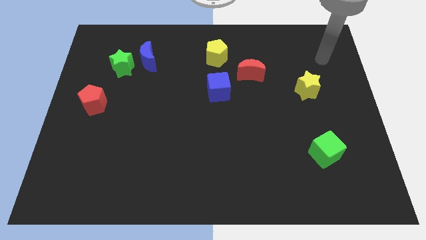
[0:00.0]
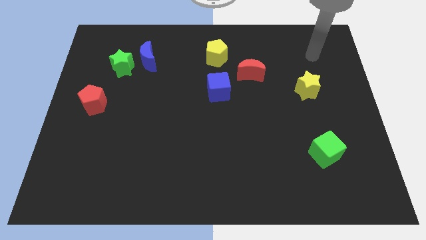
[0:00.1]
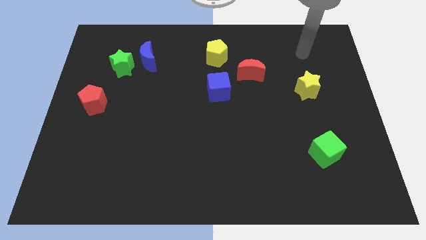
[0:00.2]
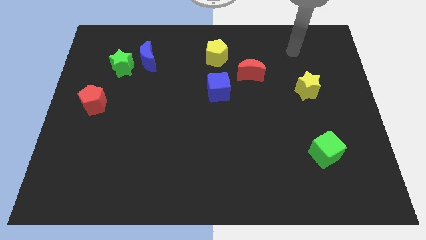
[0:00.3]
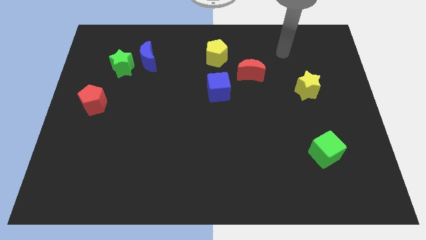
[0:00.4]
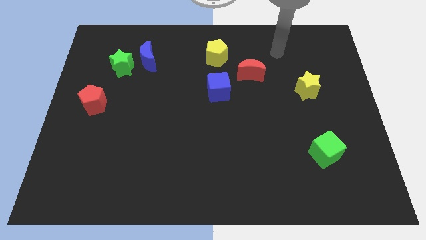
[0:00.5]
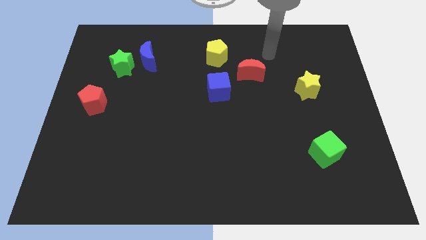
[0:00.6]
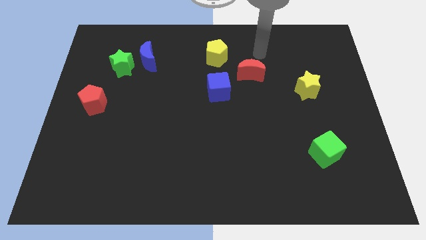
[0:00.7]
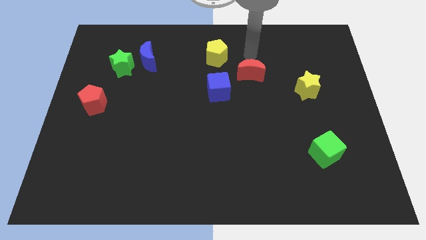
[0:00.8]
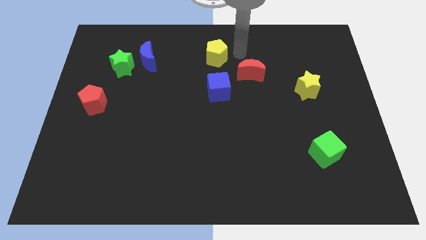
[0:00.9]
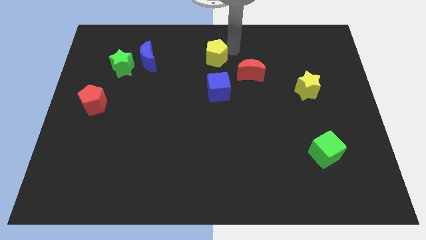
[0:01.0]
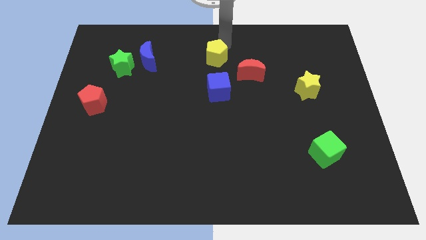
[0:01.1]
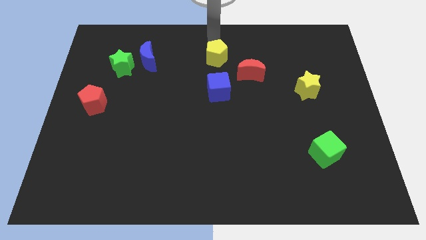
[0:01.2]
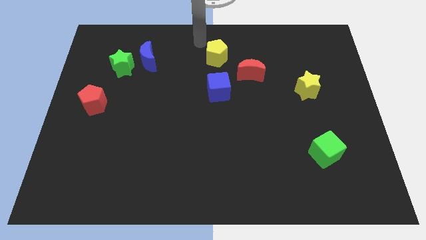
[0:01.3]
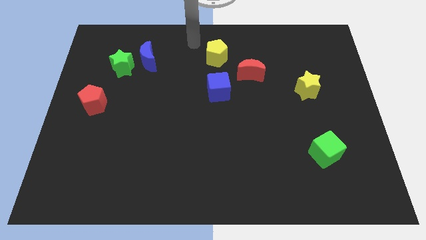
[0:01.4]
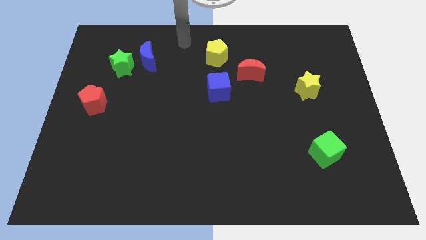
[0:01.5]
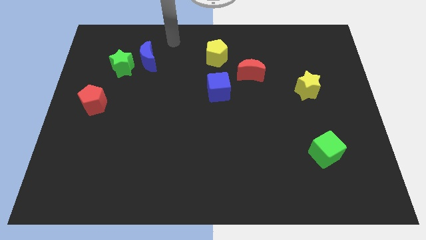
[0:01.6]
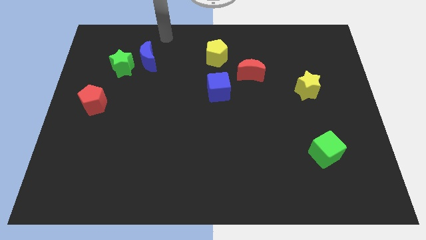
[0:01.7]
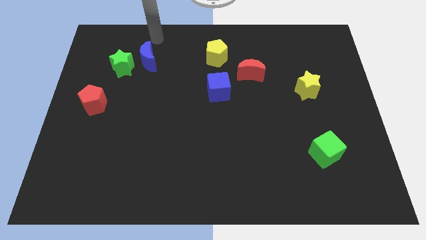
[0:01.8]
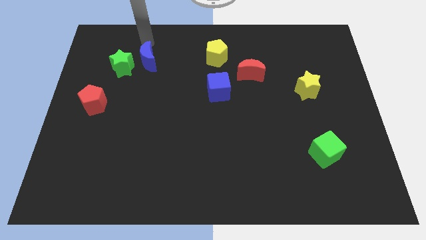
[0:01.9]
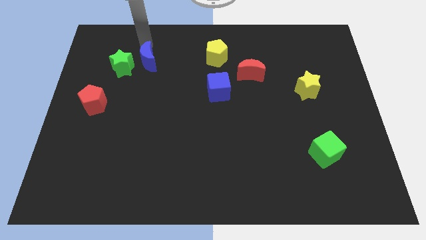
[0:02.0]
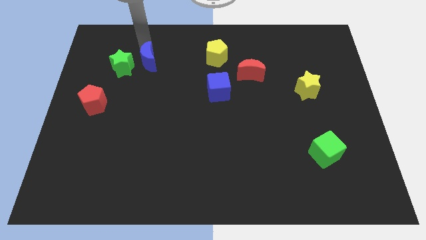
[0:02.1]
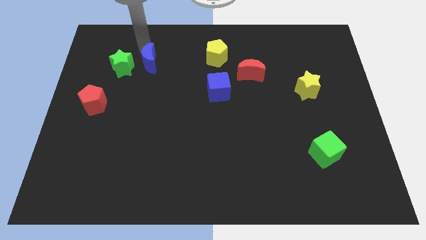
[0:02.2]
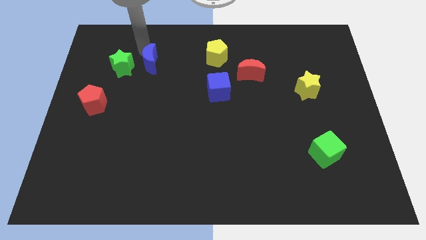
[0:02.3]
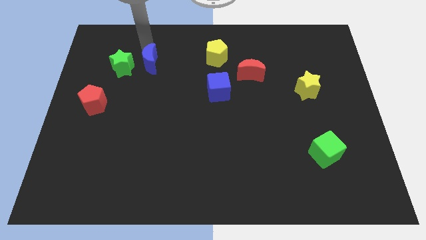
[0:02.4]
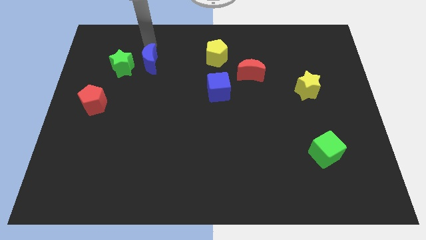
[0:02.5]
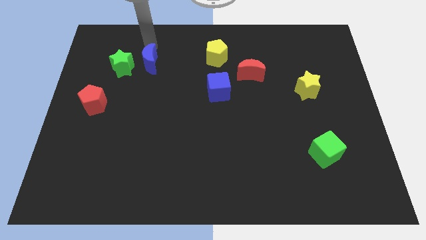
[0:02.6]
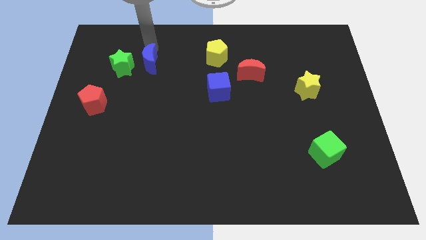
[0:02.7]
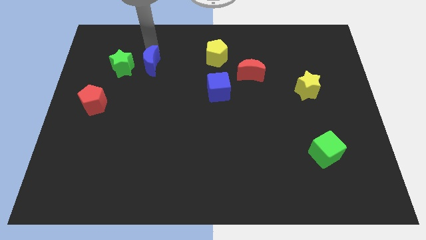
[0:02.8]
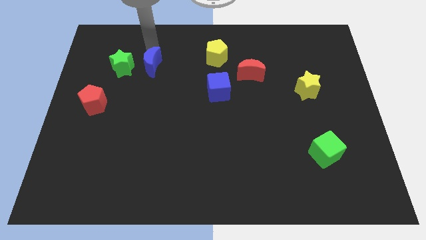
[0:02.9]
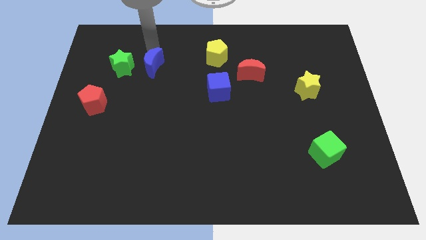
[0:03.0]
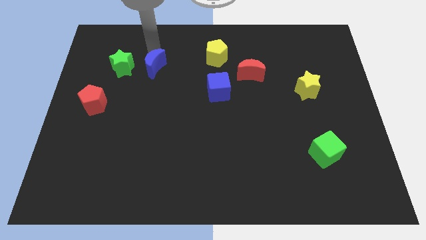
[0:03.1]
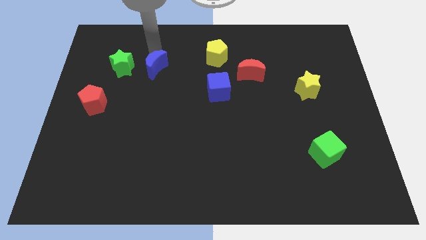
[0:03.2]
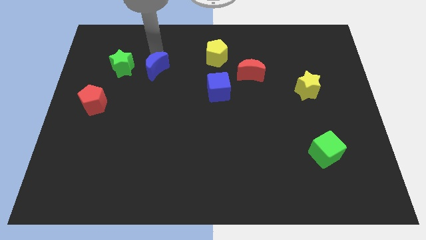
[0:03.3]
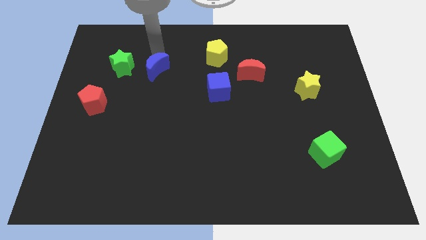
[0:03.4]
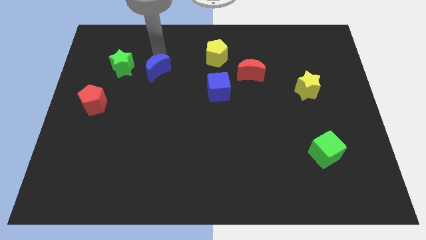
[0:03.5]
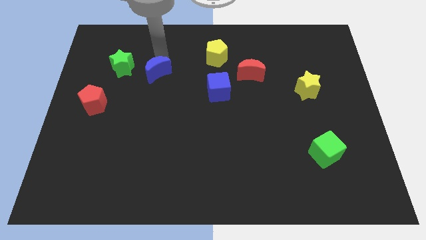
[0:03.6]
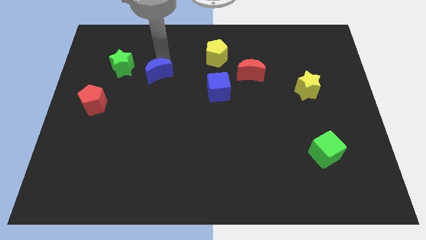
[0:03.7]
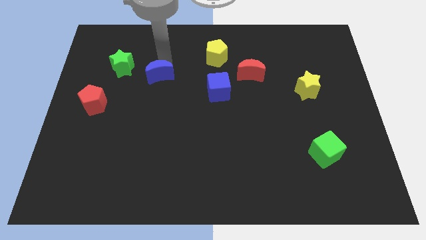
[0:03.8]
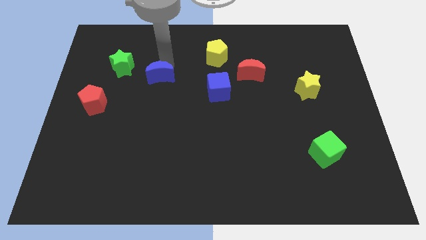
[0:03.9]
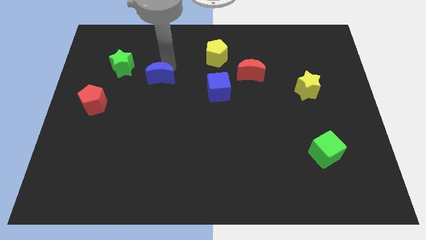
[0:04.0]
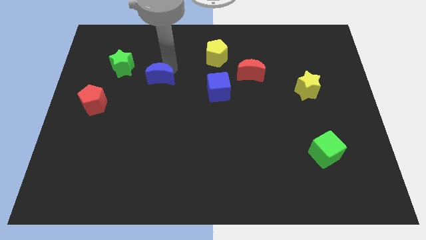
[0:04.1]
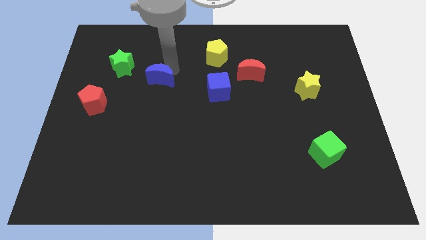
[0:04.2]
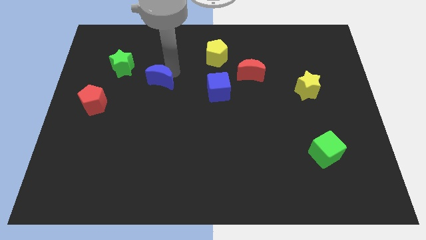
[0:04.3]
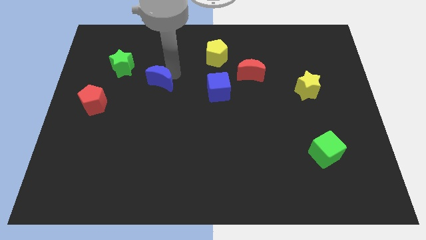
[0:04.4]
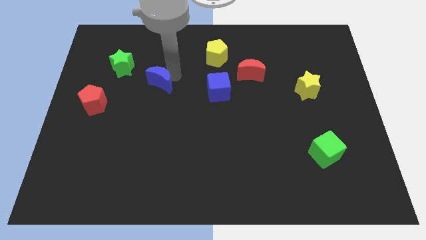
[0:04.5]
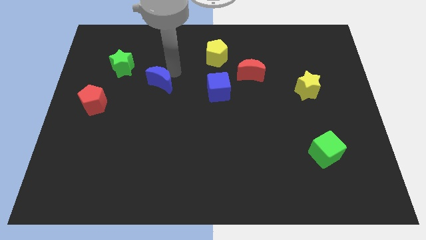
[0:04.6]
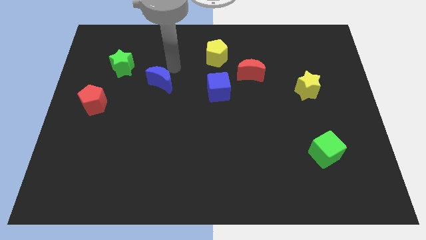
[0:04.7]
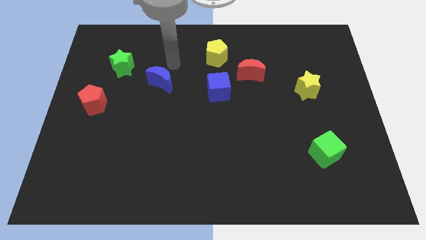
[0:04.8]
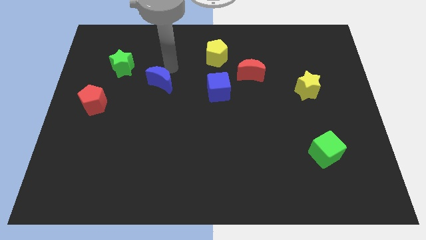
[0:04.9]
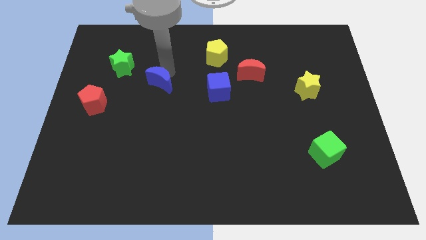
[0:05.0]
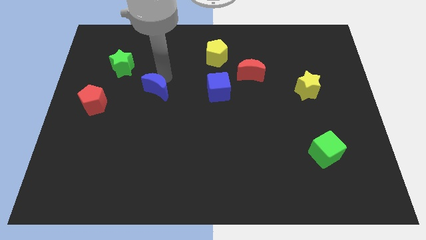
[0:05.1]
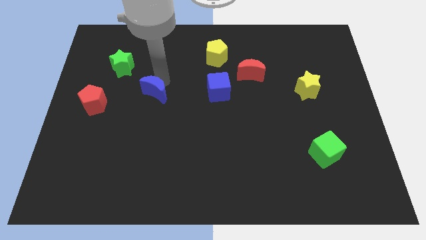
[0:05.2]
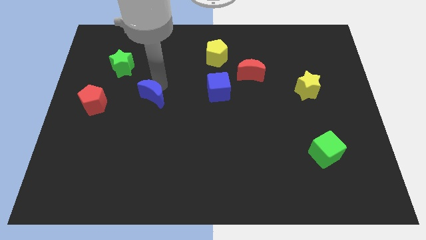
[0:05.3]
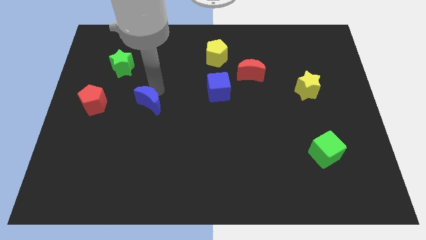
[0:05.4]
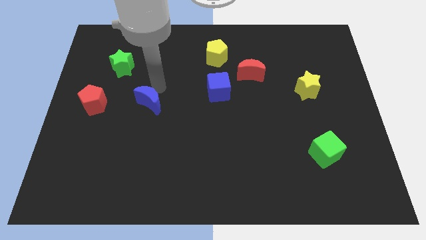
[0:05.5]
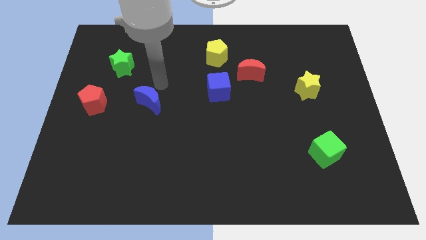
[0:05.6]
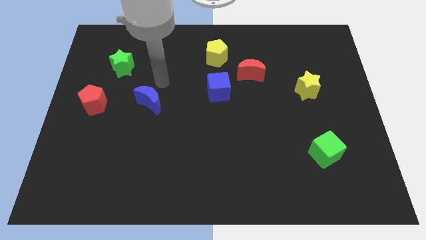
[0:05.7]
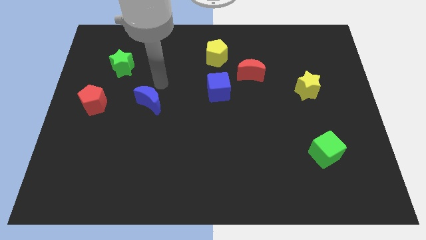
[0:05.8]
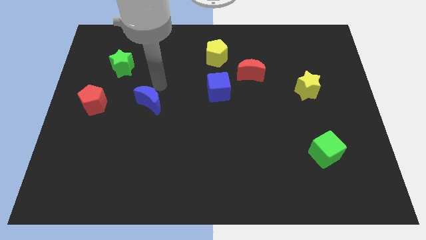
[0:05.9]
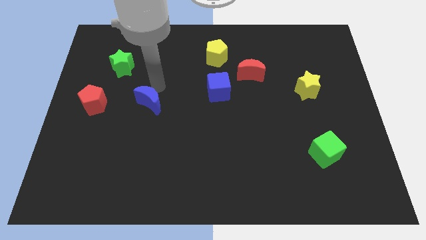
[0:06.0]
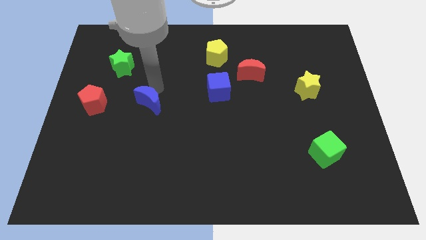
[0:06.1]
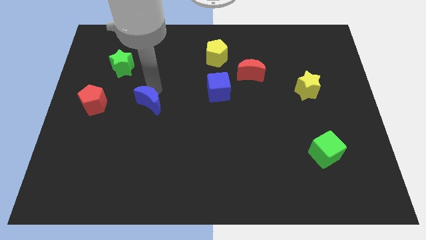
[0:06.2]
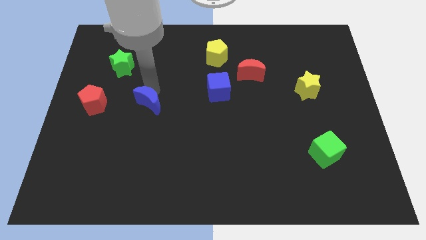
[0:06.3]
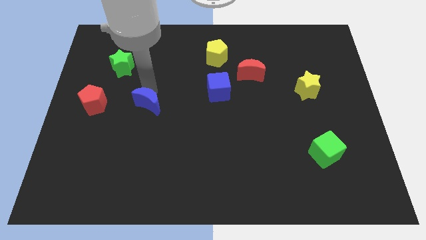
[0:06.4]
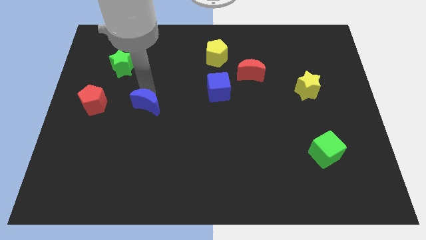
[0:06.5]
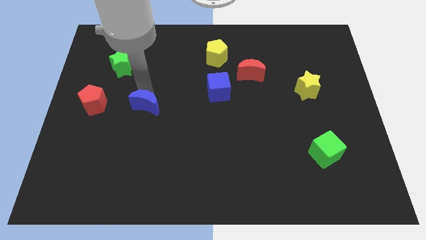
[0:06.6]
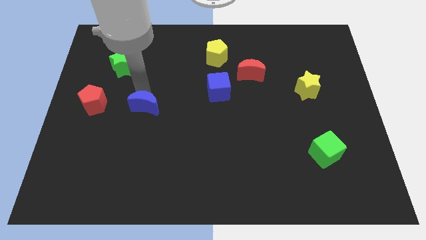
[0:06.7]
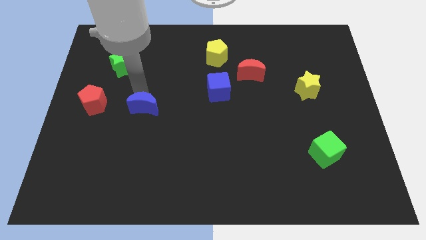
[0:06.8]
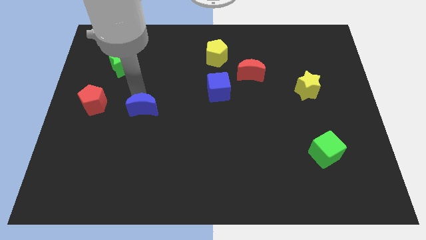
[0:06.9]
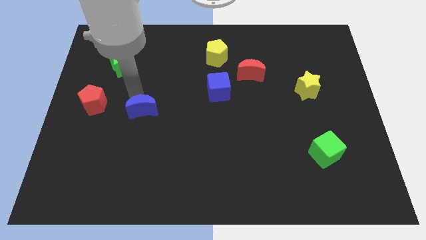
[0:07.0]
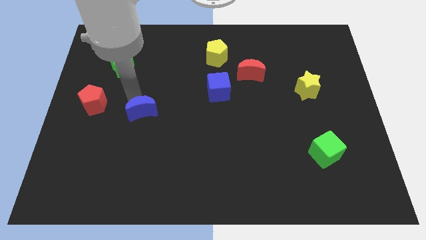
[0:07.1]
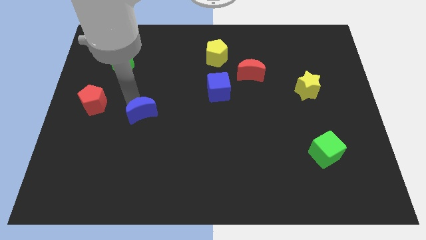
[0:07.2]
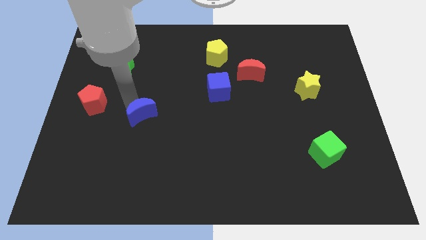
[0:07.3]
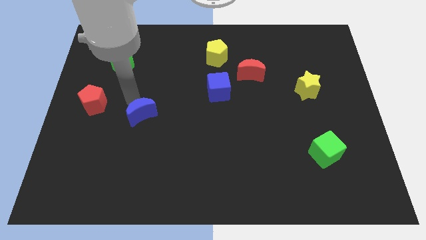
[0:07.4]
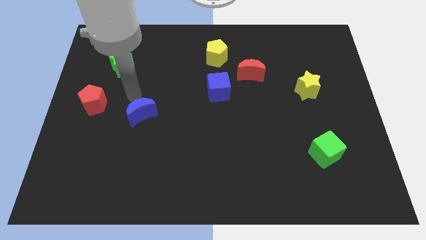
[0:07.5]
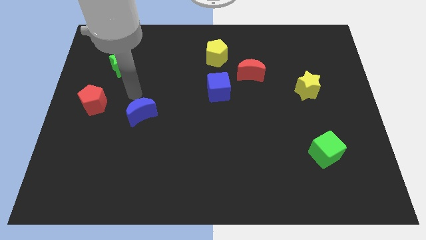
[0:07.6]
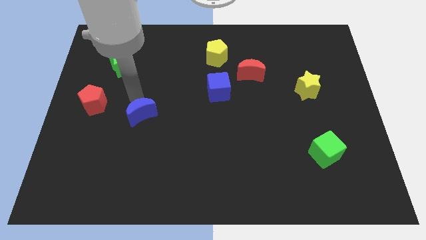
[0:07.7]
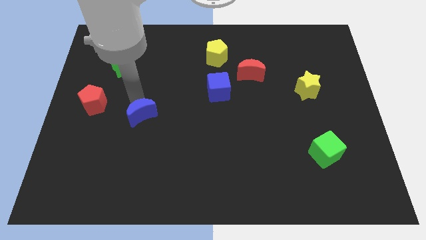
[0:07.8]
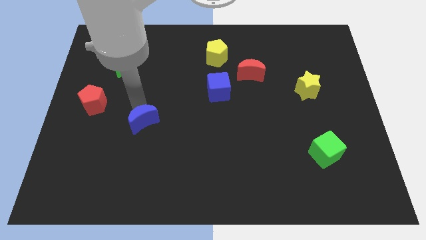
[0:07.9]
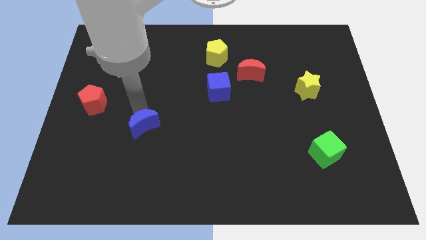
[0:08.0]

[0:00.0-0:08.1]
push the blue moon downwards

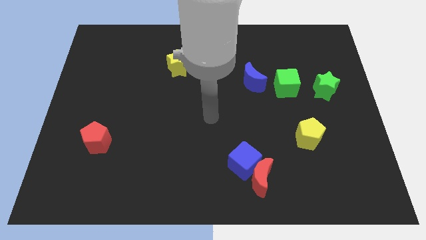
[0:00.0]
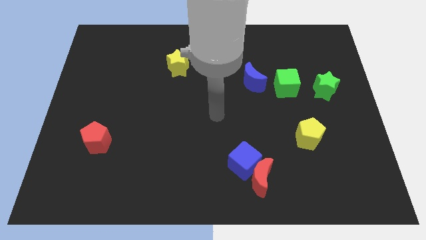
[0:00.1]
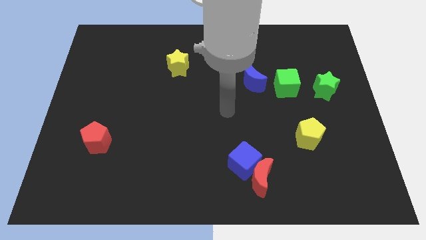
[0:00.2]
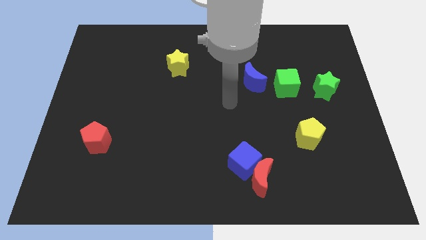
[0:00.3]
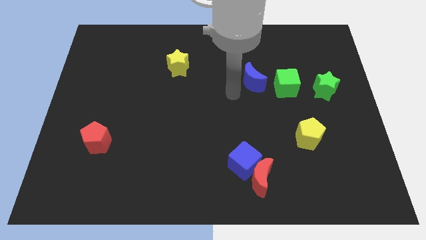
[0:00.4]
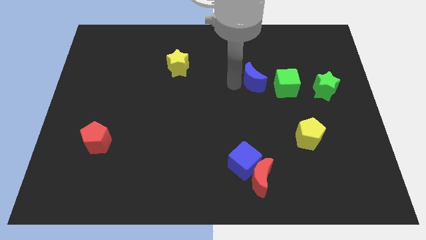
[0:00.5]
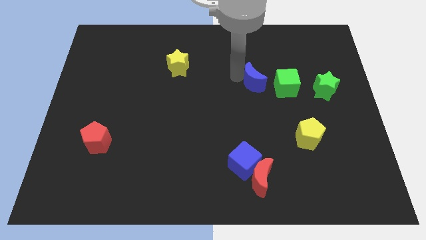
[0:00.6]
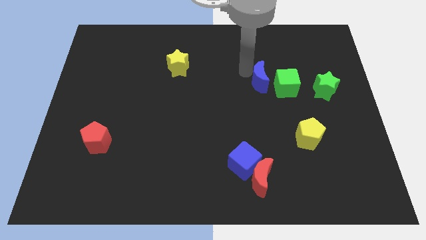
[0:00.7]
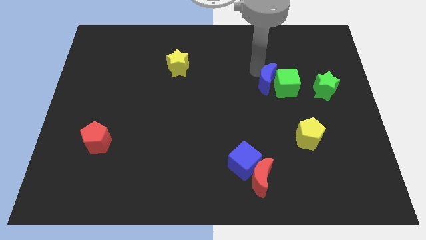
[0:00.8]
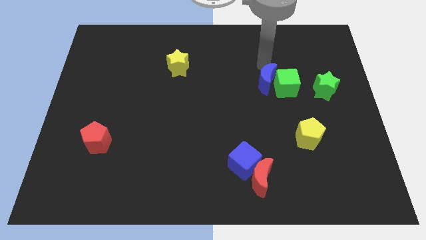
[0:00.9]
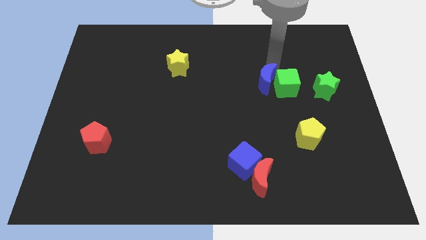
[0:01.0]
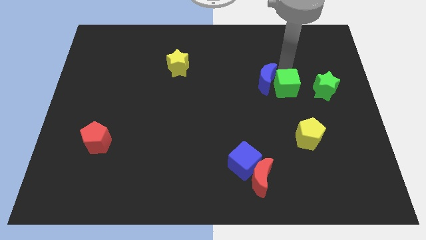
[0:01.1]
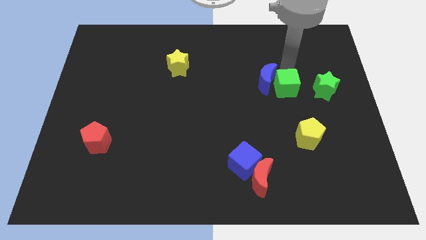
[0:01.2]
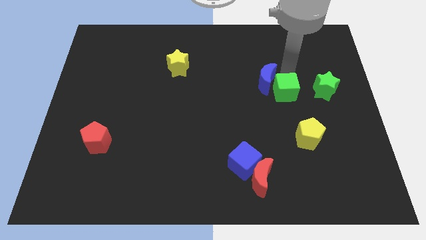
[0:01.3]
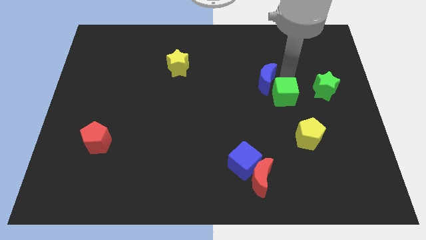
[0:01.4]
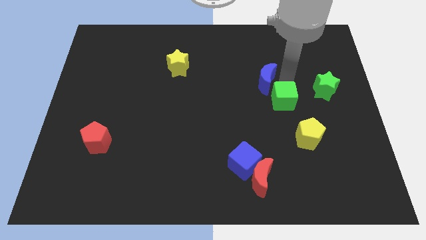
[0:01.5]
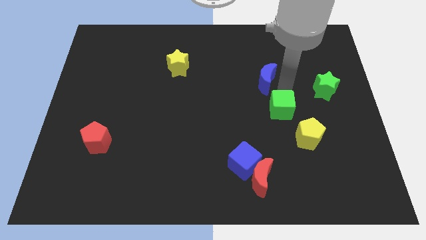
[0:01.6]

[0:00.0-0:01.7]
slide the green cube down a little
